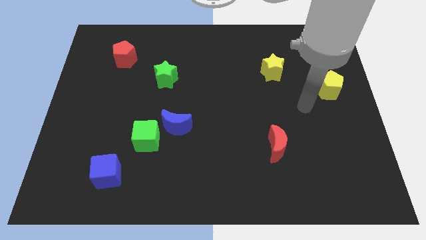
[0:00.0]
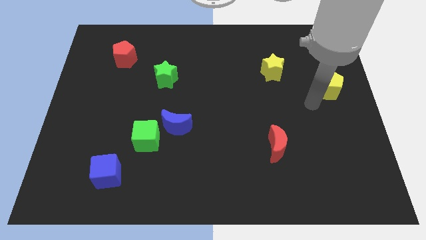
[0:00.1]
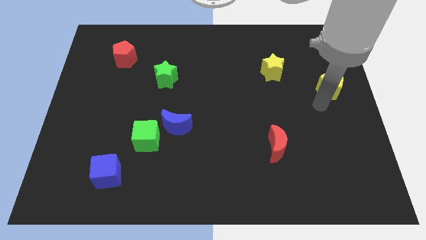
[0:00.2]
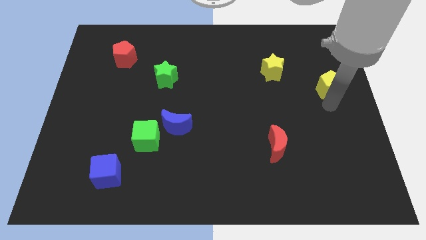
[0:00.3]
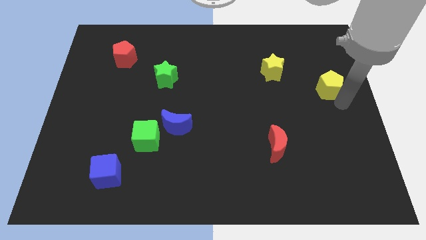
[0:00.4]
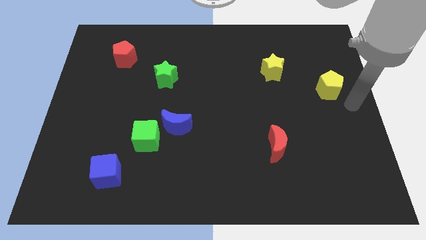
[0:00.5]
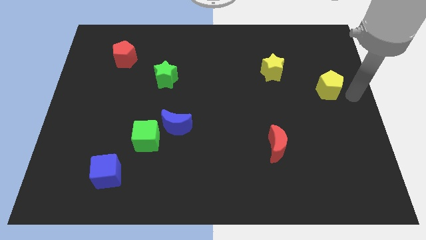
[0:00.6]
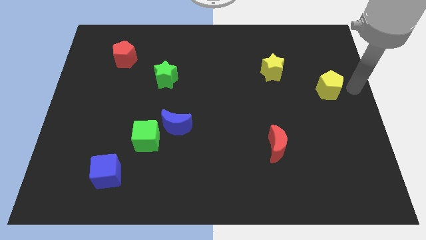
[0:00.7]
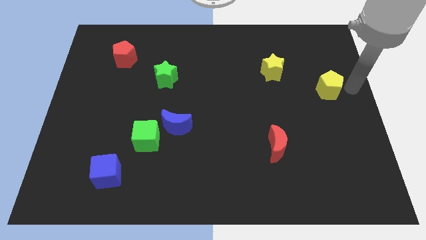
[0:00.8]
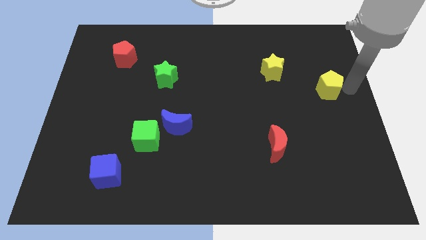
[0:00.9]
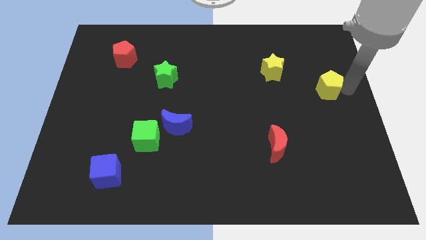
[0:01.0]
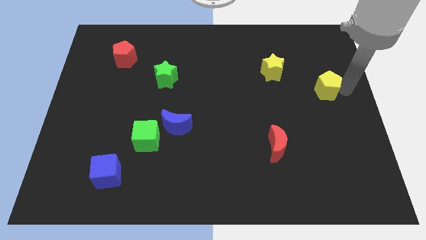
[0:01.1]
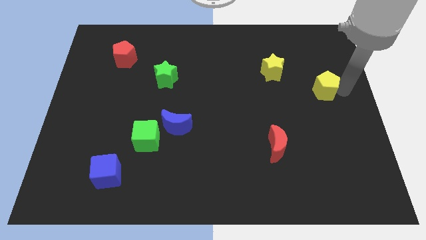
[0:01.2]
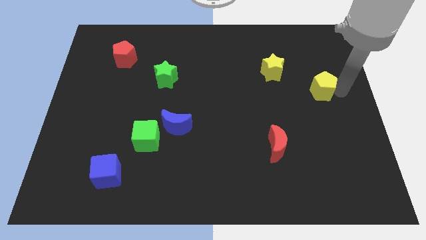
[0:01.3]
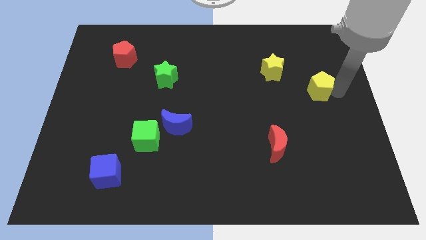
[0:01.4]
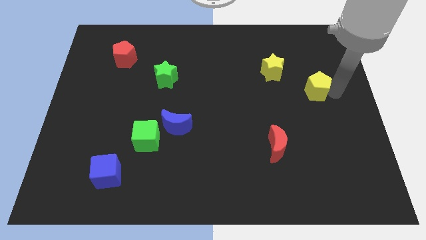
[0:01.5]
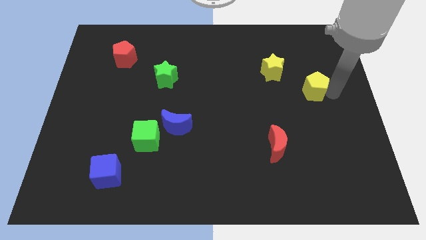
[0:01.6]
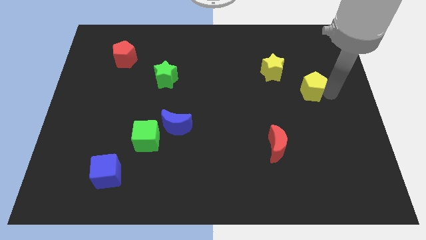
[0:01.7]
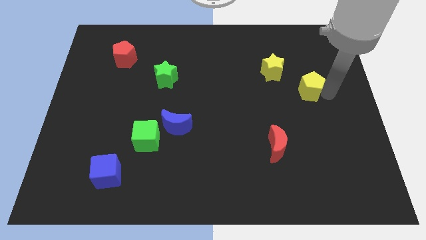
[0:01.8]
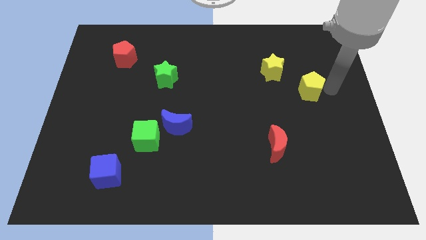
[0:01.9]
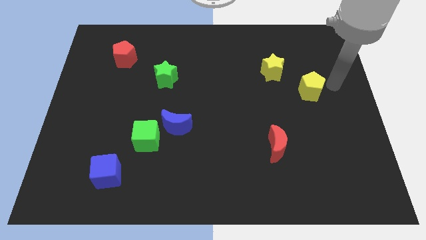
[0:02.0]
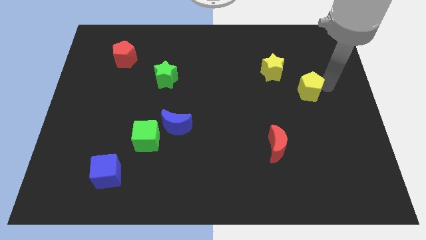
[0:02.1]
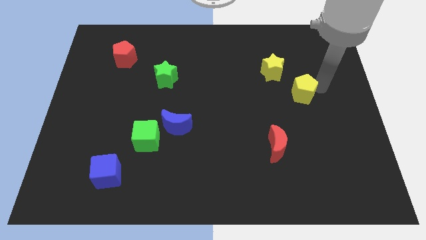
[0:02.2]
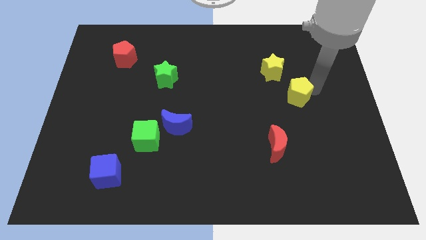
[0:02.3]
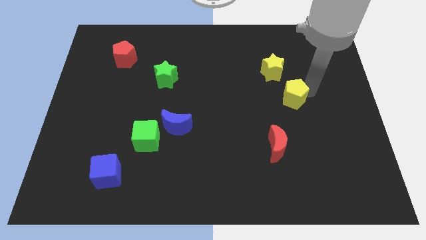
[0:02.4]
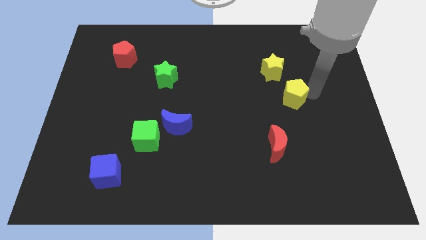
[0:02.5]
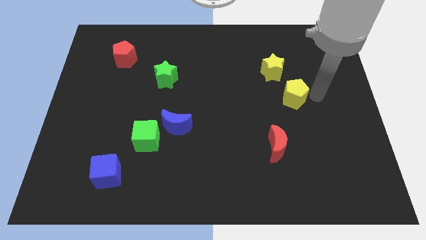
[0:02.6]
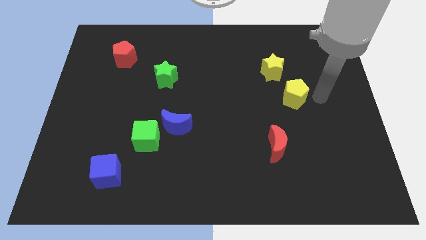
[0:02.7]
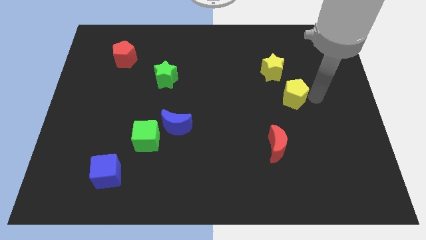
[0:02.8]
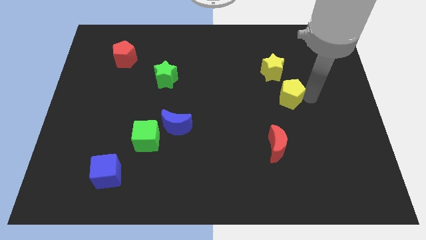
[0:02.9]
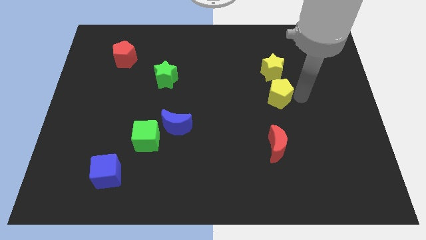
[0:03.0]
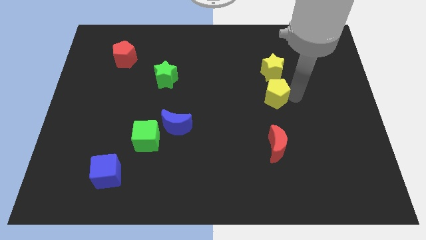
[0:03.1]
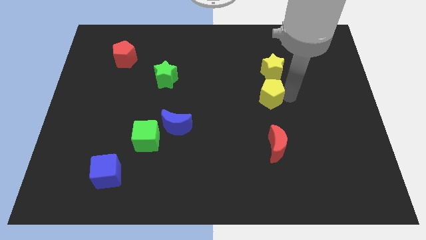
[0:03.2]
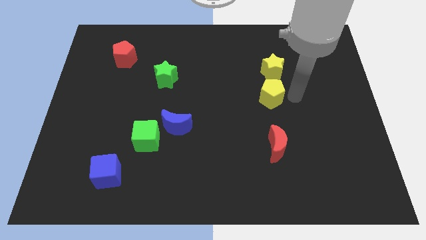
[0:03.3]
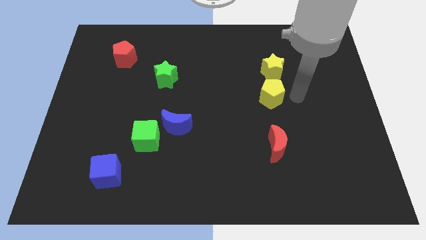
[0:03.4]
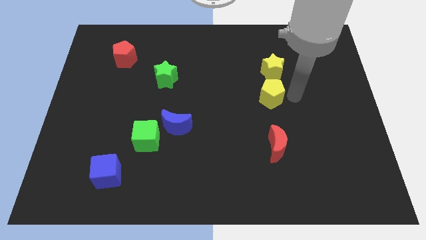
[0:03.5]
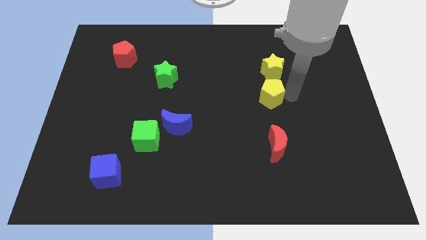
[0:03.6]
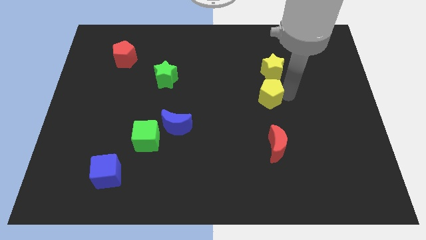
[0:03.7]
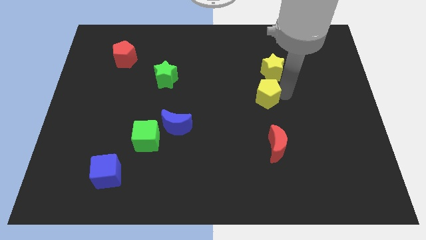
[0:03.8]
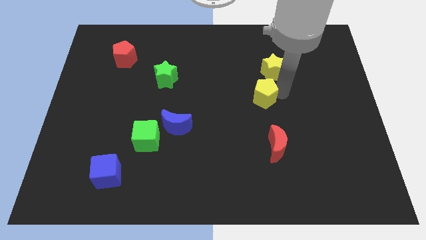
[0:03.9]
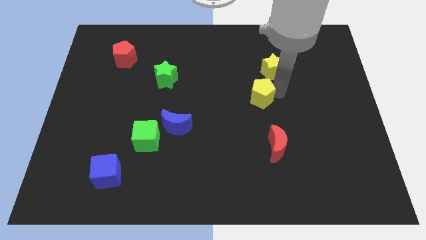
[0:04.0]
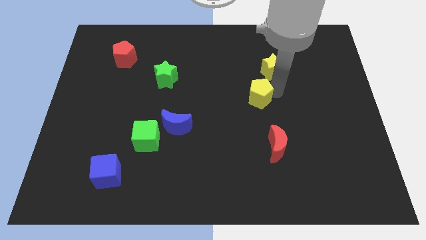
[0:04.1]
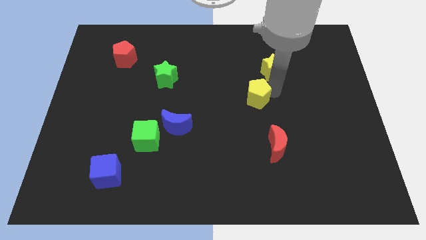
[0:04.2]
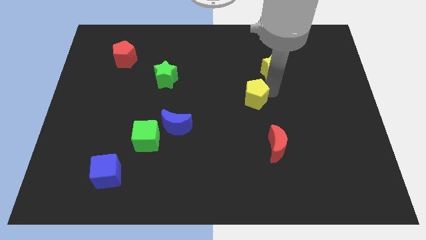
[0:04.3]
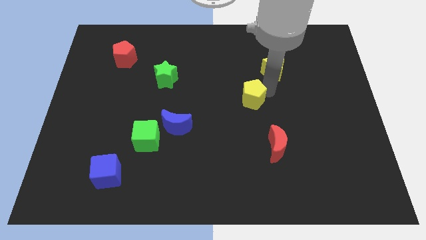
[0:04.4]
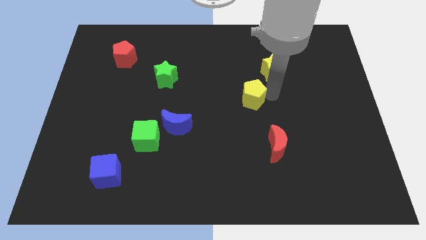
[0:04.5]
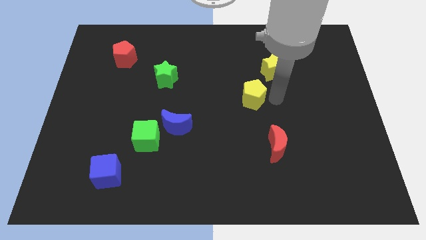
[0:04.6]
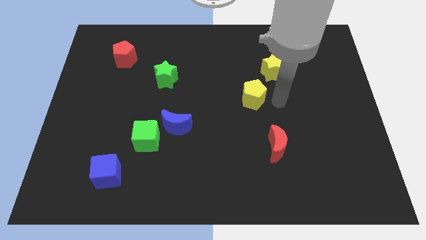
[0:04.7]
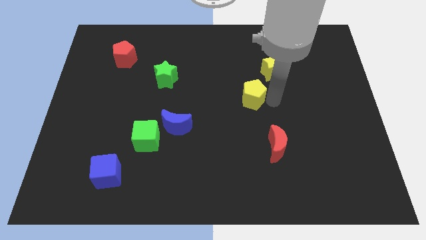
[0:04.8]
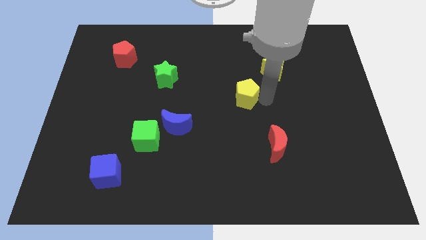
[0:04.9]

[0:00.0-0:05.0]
move the yellow pentagon left

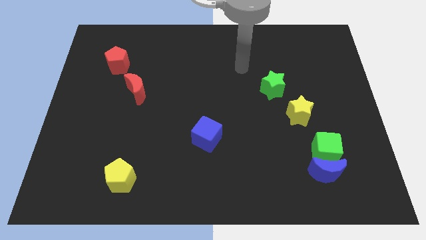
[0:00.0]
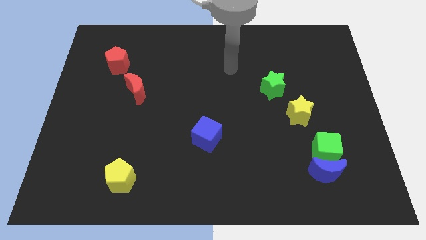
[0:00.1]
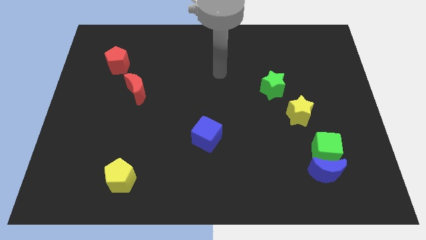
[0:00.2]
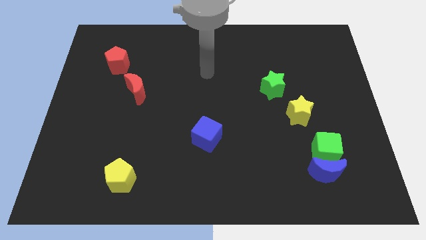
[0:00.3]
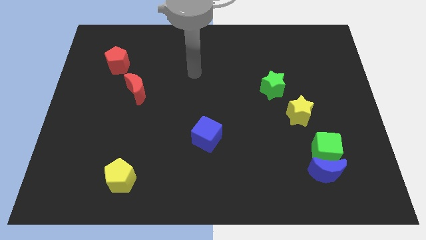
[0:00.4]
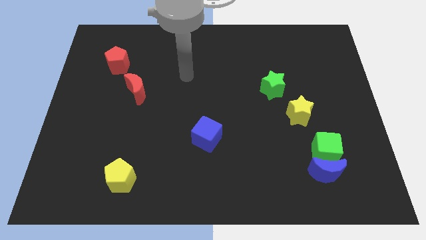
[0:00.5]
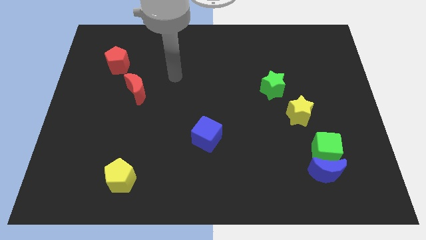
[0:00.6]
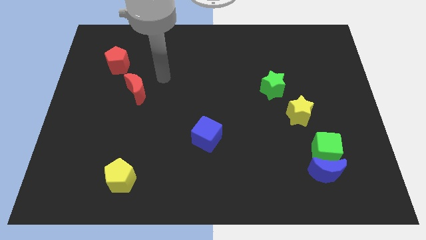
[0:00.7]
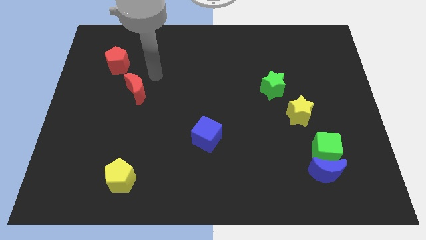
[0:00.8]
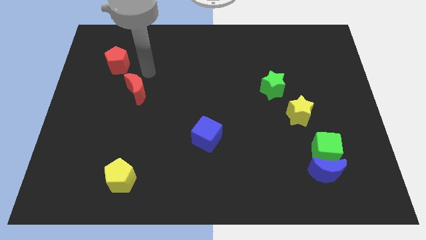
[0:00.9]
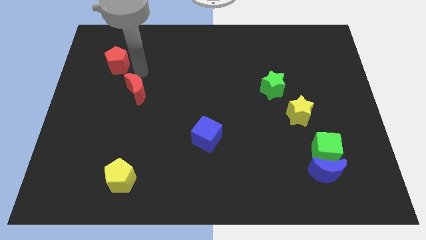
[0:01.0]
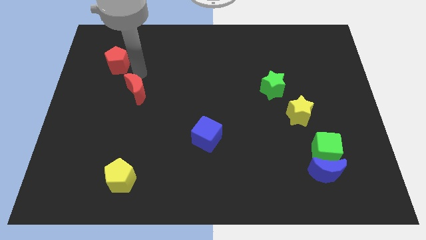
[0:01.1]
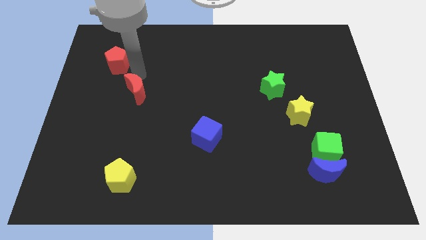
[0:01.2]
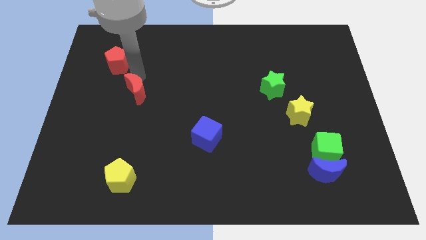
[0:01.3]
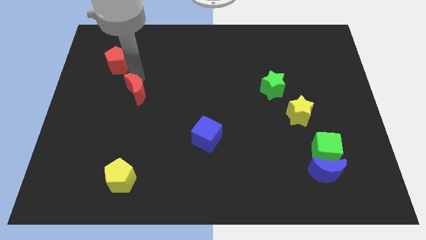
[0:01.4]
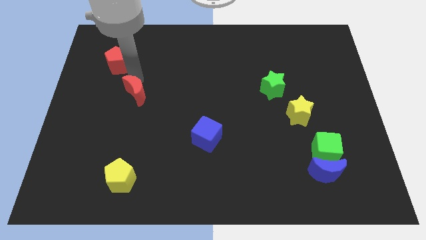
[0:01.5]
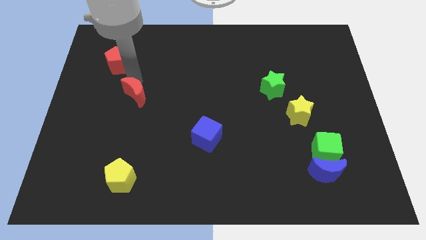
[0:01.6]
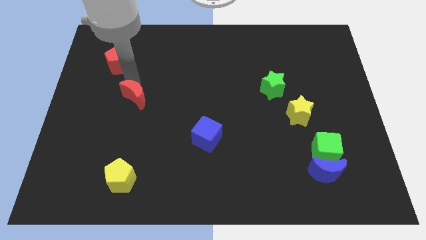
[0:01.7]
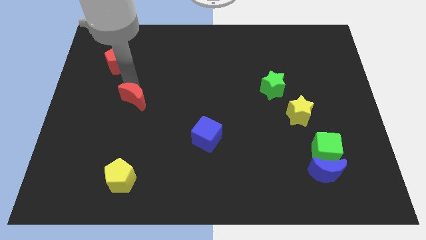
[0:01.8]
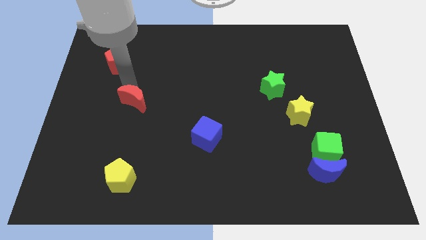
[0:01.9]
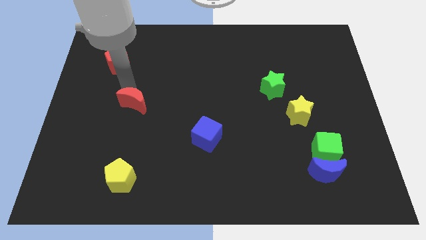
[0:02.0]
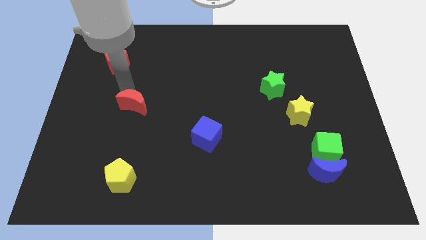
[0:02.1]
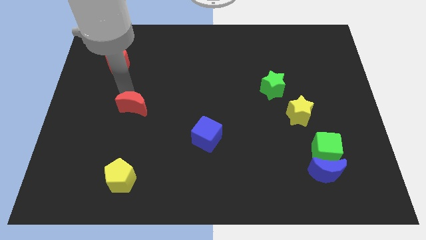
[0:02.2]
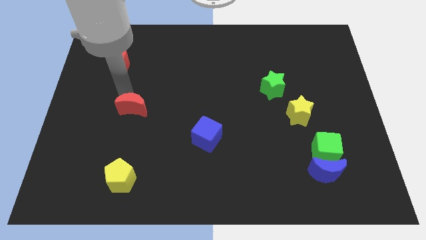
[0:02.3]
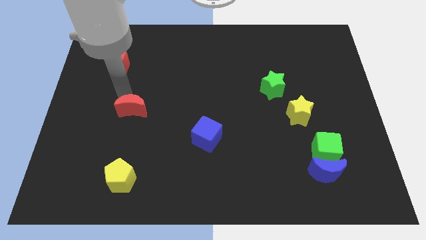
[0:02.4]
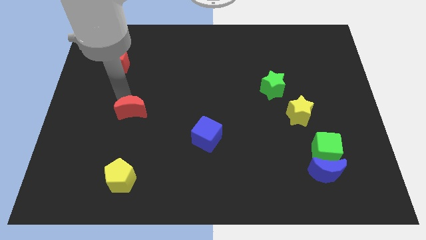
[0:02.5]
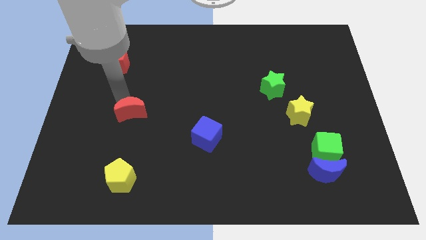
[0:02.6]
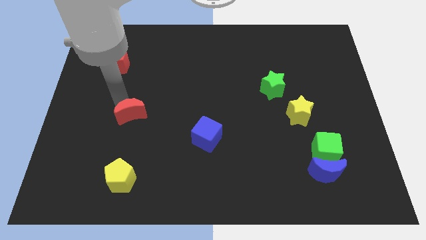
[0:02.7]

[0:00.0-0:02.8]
move the red moon down a little bit
